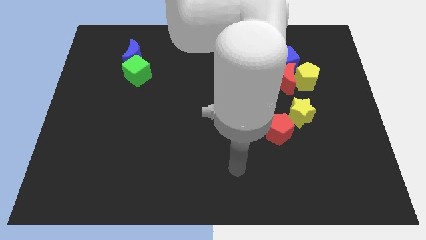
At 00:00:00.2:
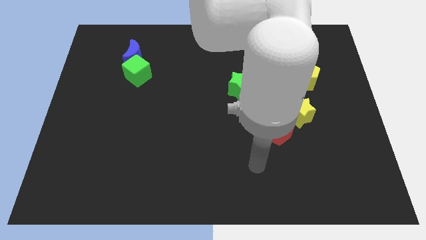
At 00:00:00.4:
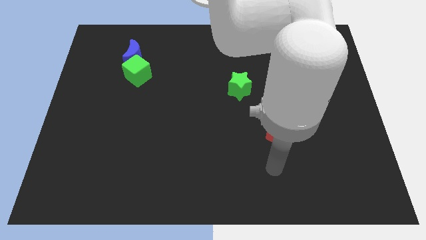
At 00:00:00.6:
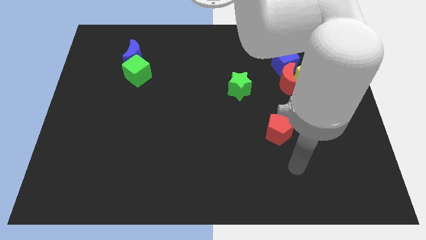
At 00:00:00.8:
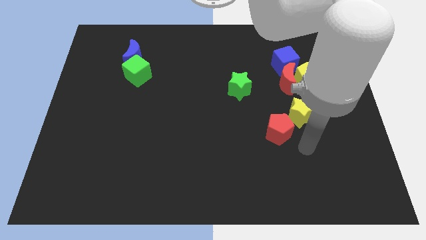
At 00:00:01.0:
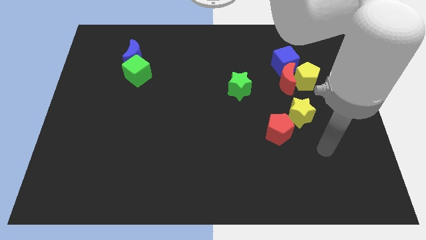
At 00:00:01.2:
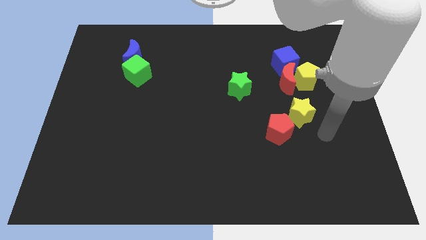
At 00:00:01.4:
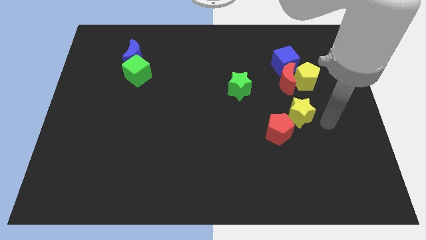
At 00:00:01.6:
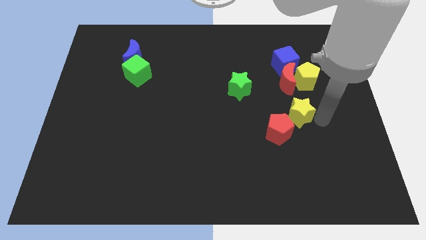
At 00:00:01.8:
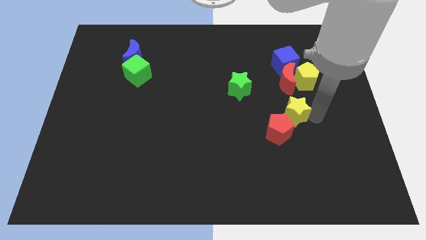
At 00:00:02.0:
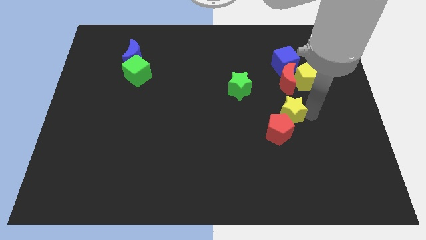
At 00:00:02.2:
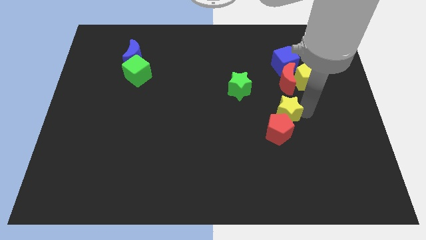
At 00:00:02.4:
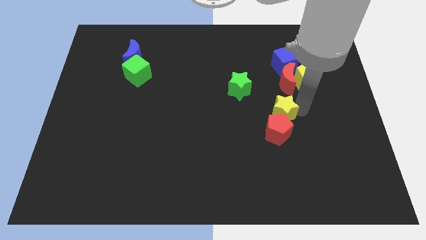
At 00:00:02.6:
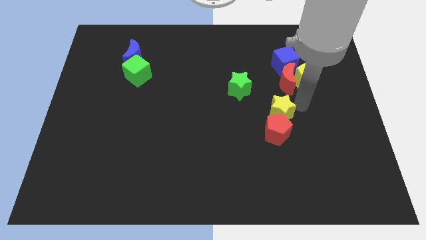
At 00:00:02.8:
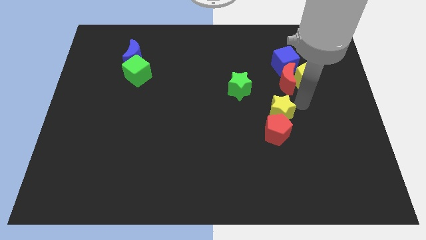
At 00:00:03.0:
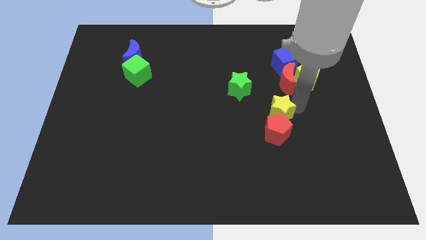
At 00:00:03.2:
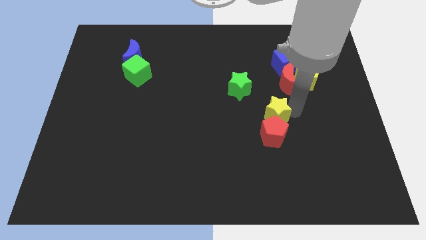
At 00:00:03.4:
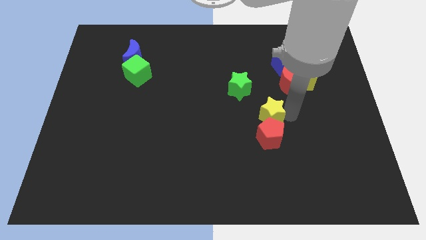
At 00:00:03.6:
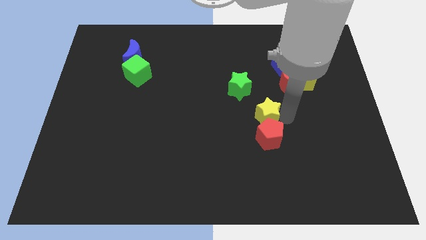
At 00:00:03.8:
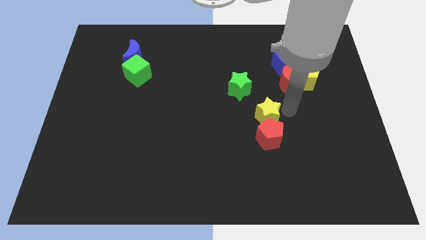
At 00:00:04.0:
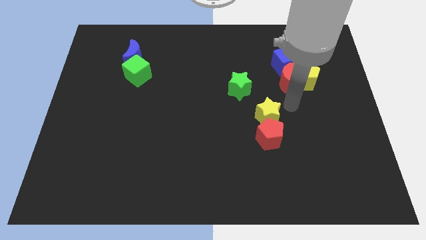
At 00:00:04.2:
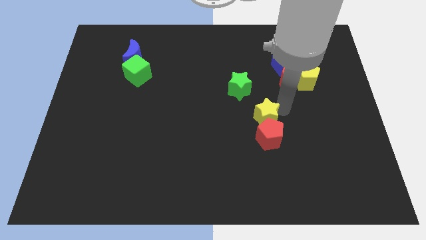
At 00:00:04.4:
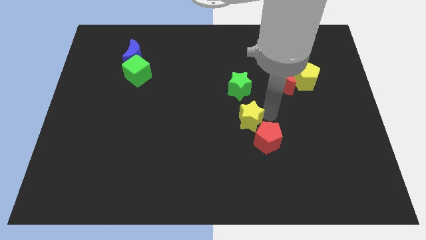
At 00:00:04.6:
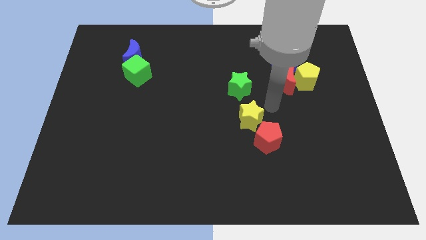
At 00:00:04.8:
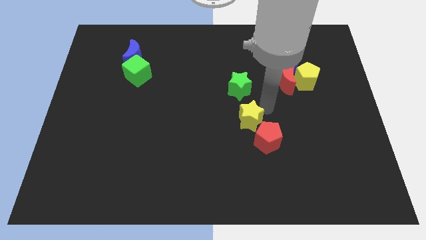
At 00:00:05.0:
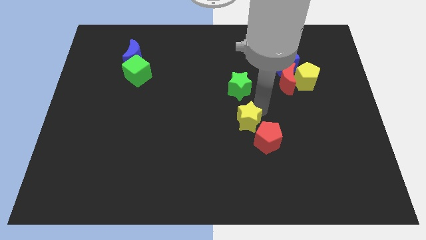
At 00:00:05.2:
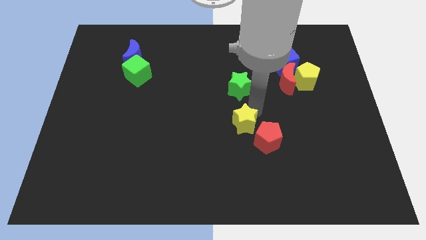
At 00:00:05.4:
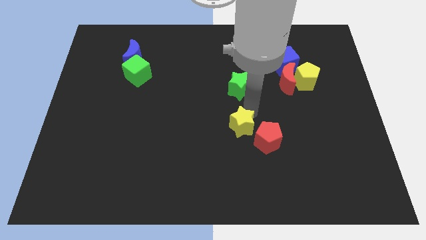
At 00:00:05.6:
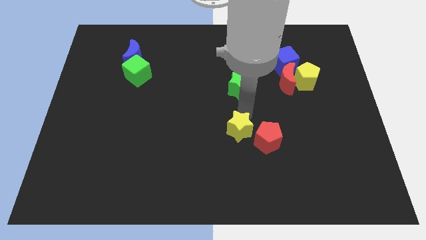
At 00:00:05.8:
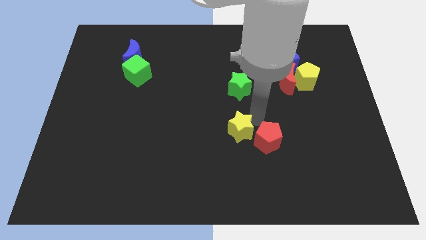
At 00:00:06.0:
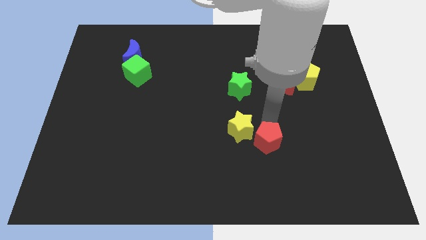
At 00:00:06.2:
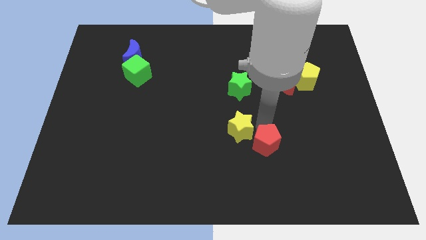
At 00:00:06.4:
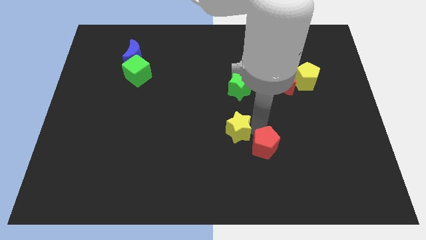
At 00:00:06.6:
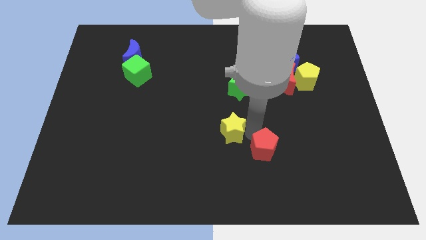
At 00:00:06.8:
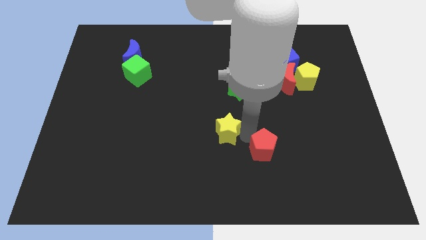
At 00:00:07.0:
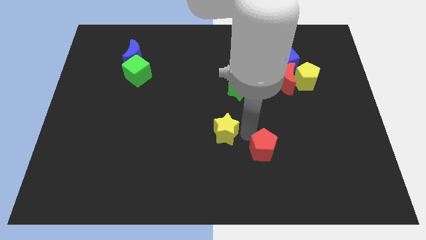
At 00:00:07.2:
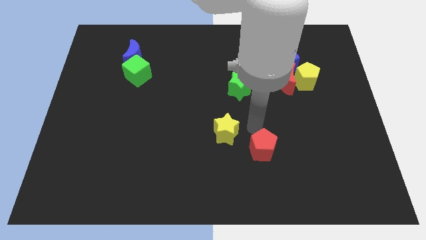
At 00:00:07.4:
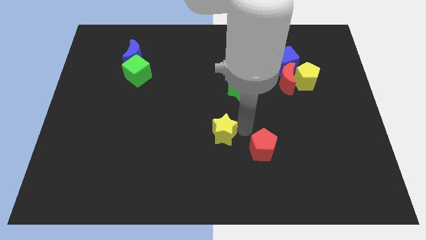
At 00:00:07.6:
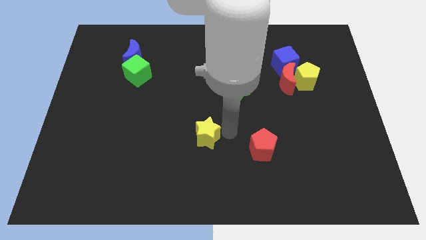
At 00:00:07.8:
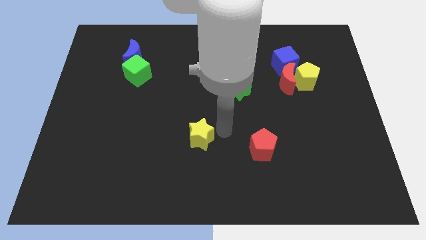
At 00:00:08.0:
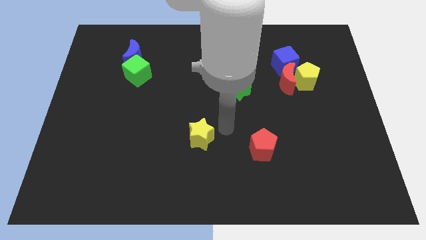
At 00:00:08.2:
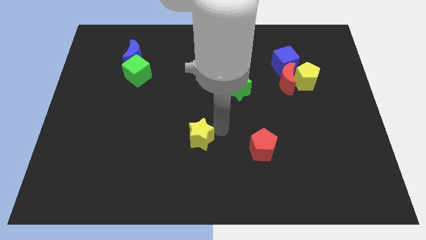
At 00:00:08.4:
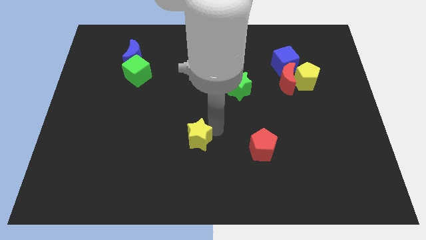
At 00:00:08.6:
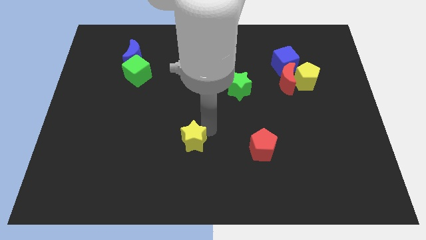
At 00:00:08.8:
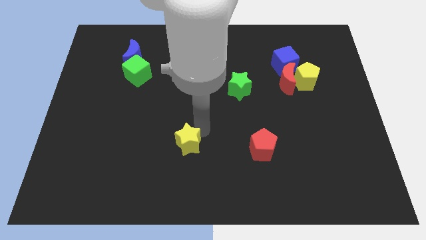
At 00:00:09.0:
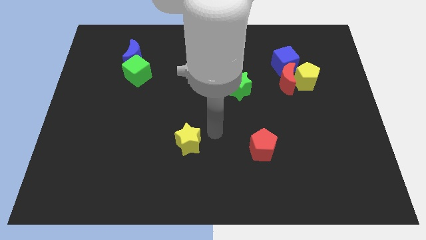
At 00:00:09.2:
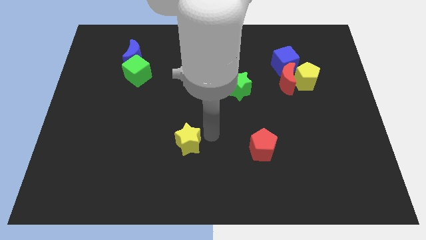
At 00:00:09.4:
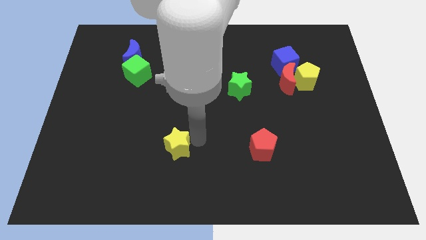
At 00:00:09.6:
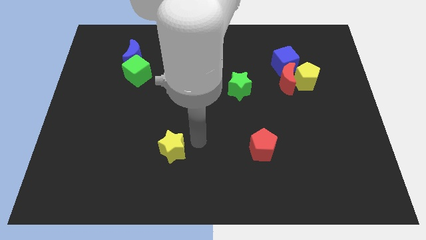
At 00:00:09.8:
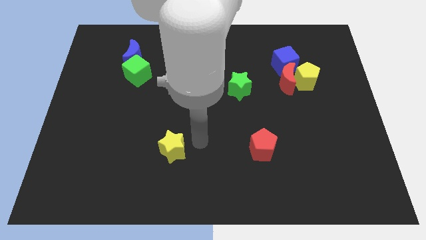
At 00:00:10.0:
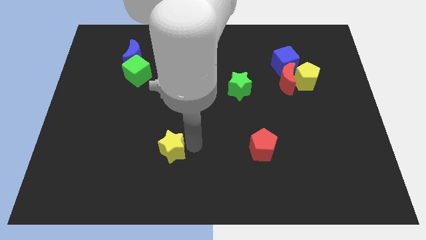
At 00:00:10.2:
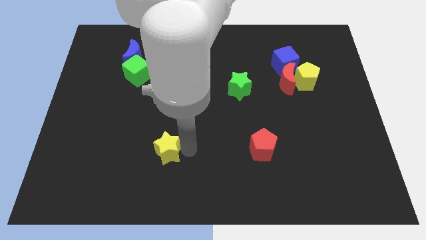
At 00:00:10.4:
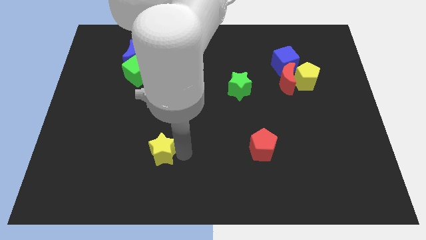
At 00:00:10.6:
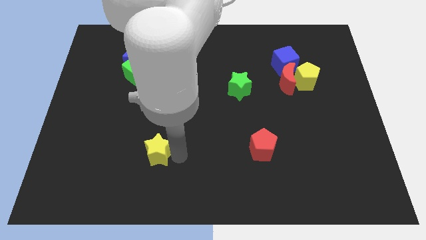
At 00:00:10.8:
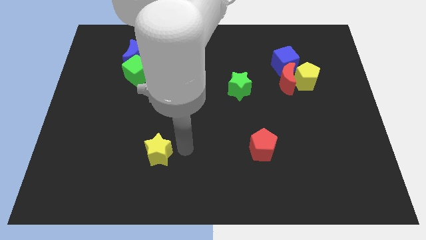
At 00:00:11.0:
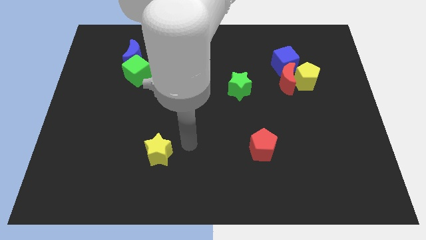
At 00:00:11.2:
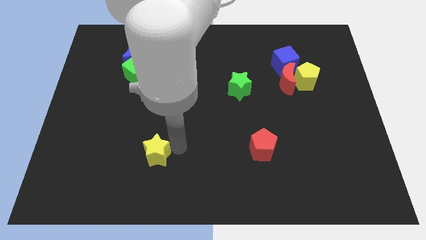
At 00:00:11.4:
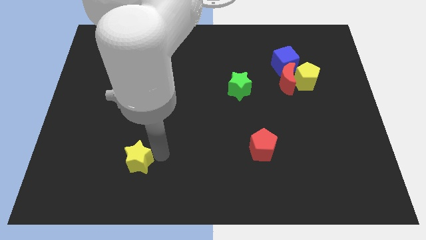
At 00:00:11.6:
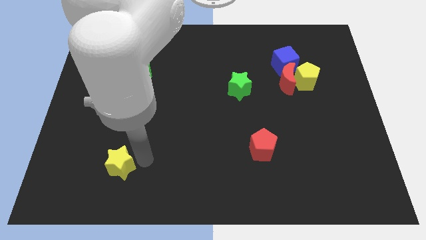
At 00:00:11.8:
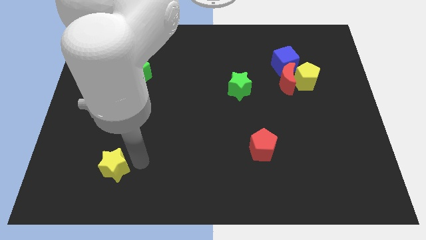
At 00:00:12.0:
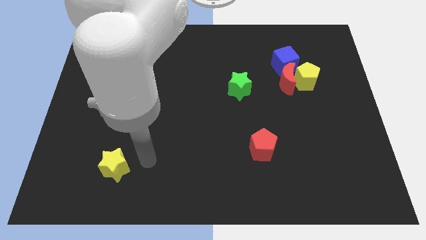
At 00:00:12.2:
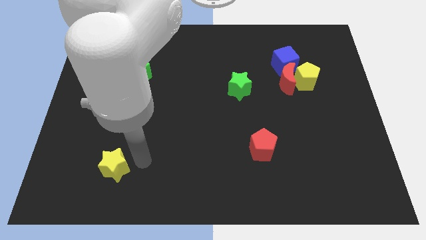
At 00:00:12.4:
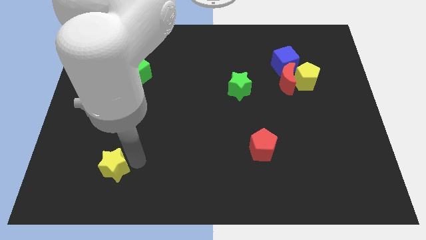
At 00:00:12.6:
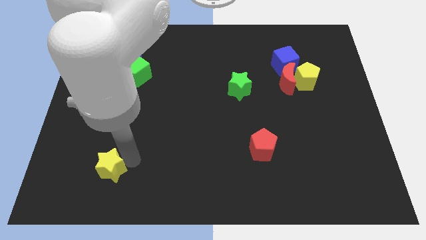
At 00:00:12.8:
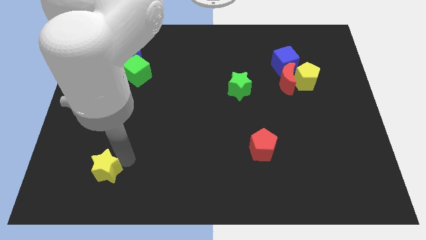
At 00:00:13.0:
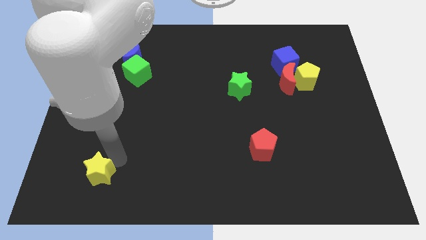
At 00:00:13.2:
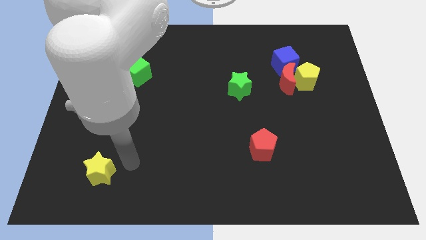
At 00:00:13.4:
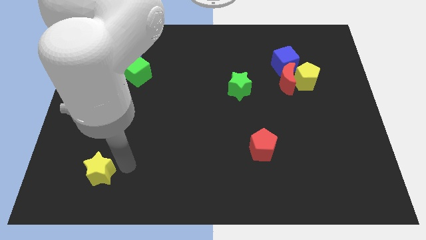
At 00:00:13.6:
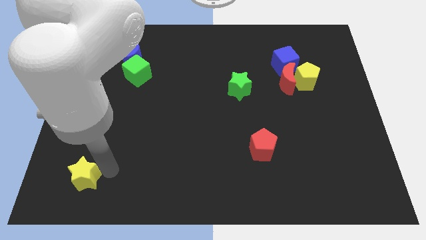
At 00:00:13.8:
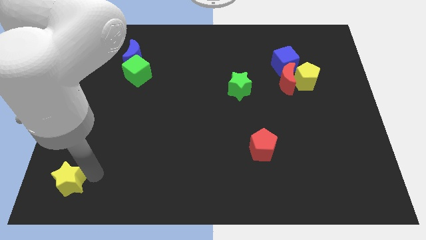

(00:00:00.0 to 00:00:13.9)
push the yellow star to the bottom left
